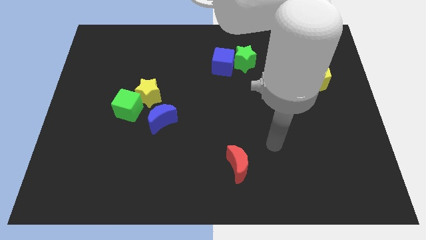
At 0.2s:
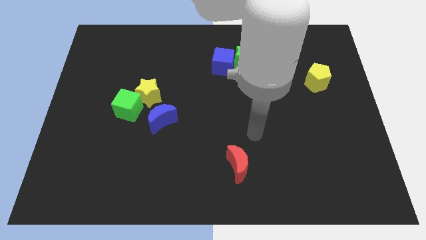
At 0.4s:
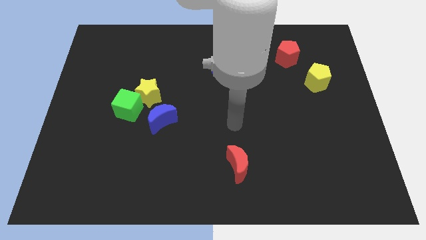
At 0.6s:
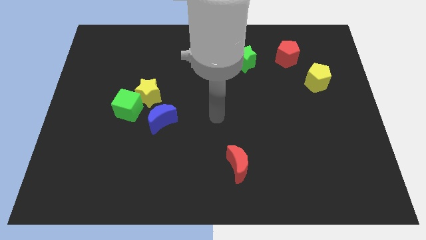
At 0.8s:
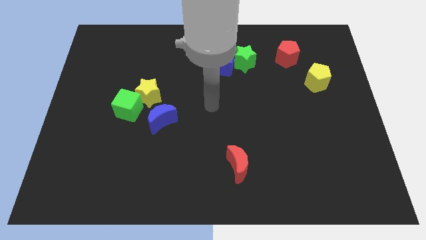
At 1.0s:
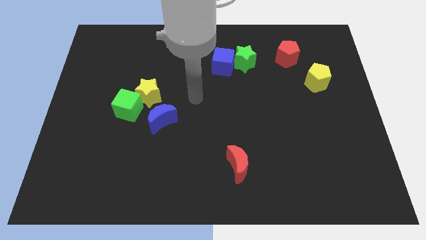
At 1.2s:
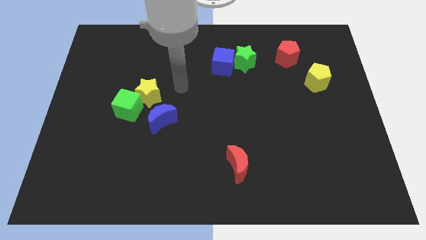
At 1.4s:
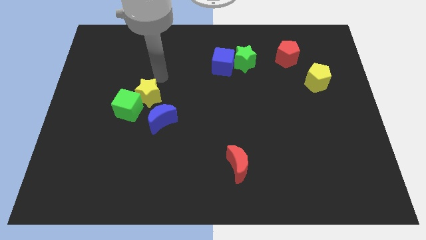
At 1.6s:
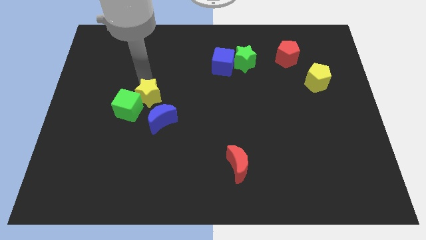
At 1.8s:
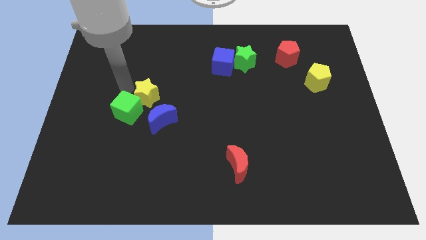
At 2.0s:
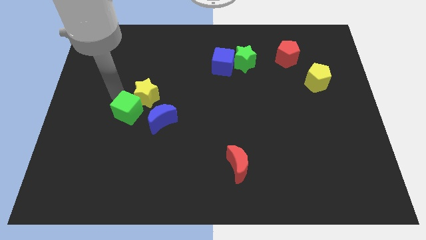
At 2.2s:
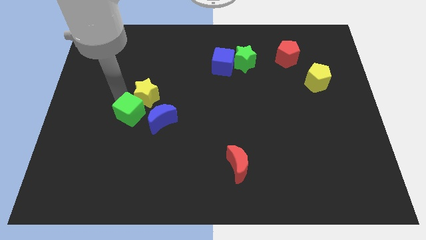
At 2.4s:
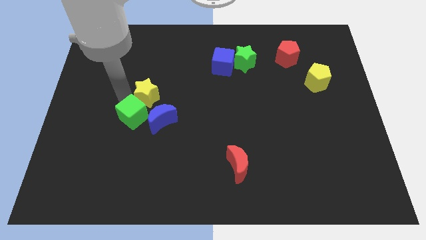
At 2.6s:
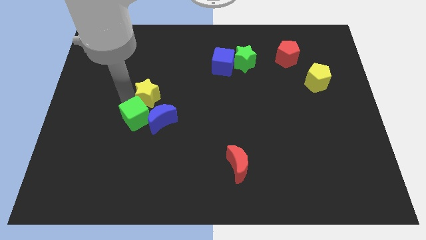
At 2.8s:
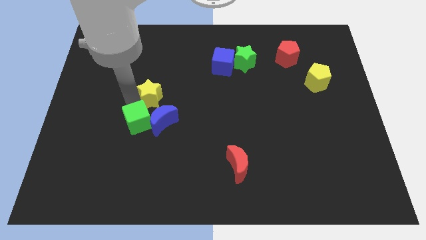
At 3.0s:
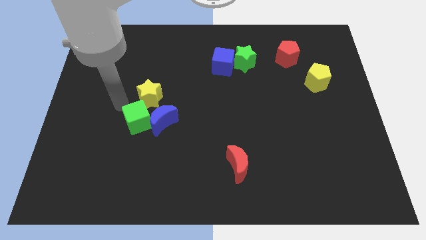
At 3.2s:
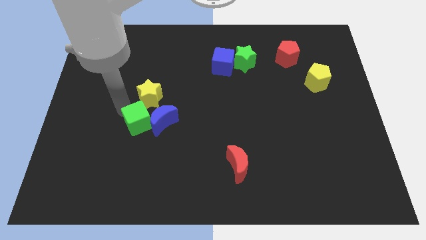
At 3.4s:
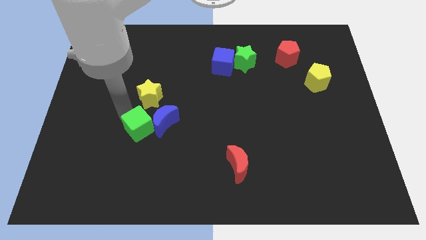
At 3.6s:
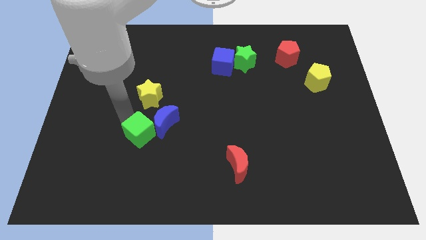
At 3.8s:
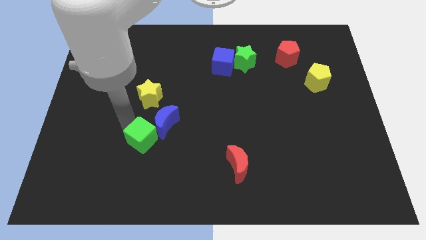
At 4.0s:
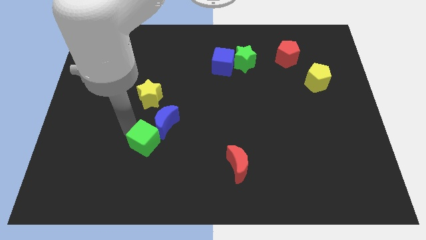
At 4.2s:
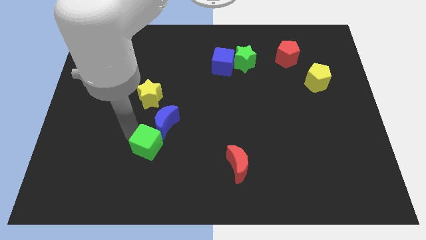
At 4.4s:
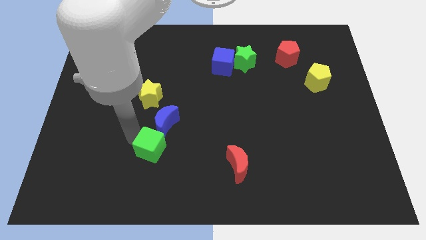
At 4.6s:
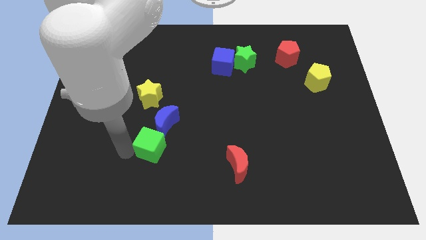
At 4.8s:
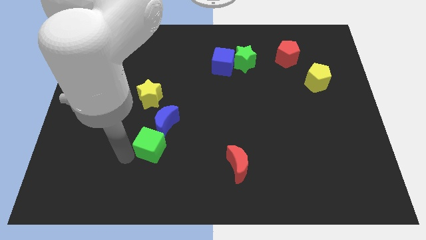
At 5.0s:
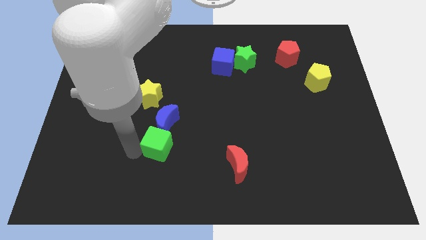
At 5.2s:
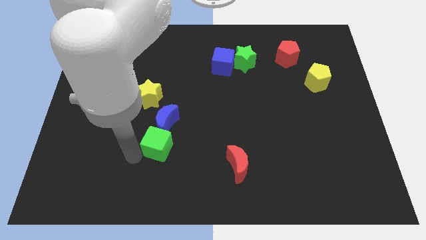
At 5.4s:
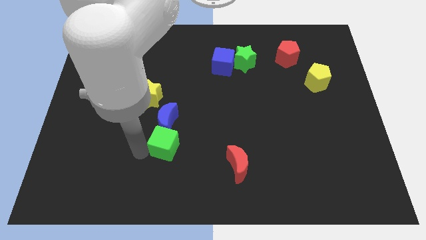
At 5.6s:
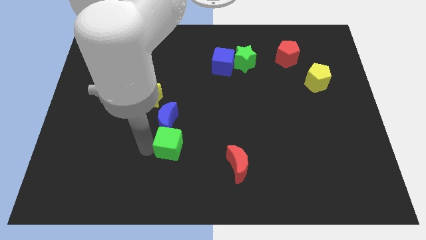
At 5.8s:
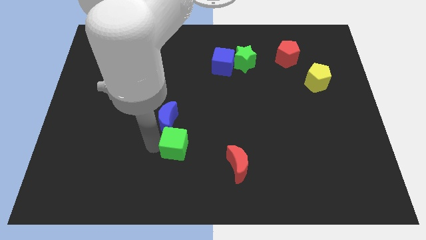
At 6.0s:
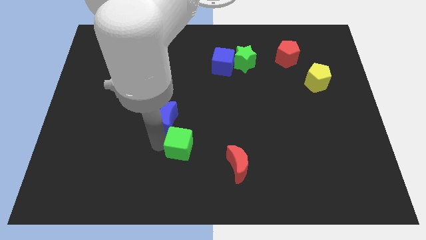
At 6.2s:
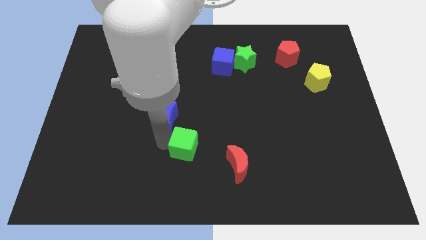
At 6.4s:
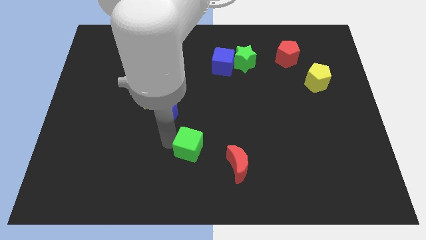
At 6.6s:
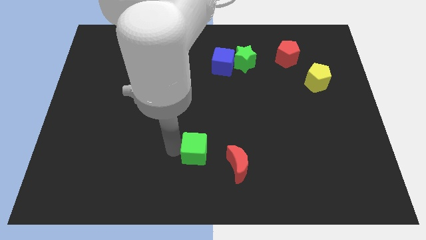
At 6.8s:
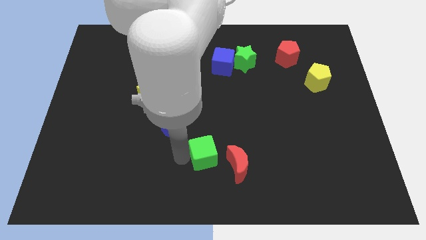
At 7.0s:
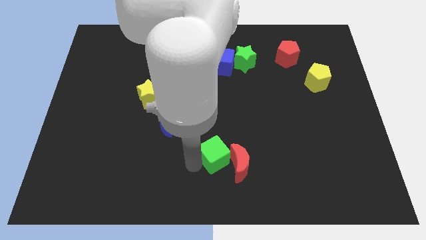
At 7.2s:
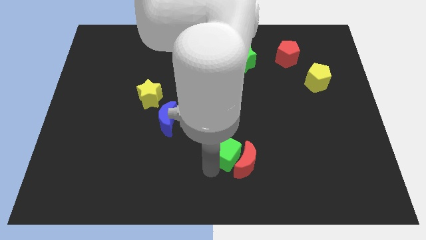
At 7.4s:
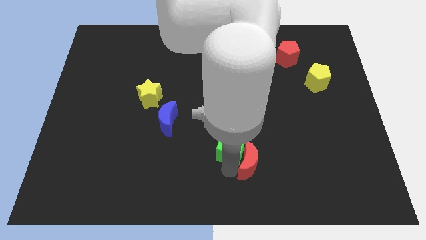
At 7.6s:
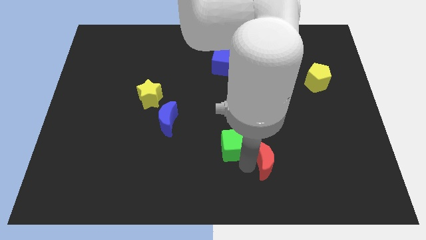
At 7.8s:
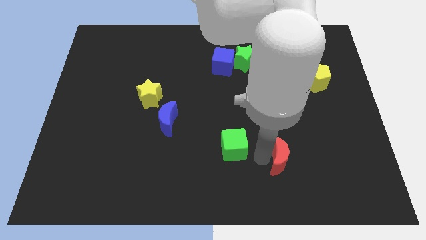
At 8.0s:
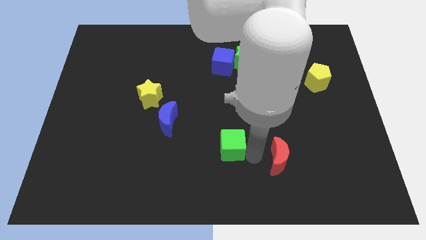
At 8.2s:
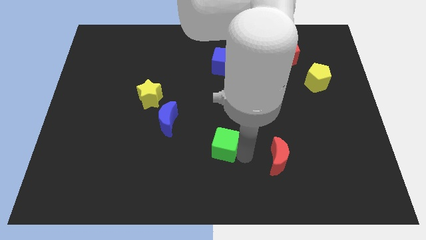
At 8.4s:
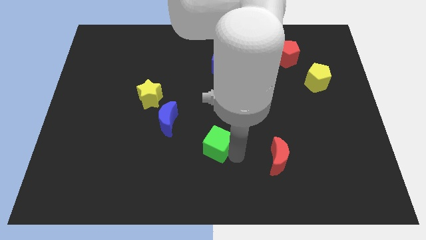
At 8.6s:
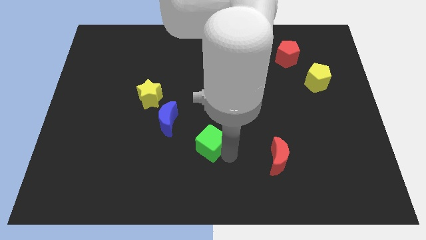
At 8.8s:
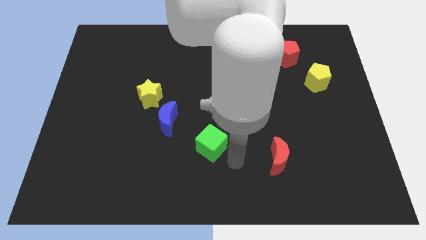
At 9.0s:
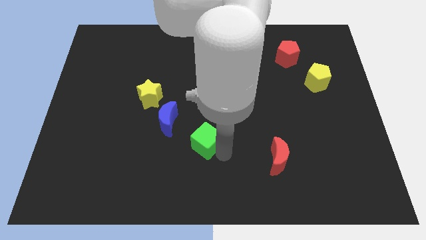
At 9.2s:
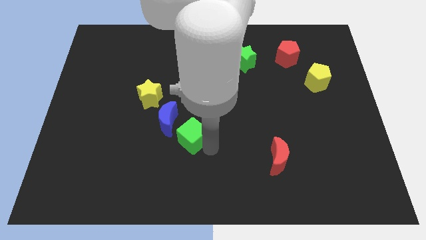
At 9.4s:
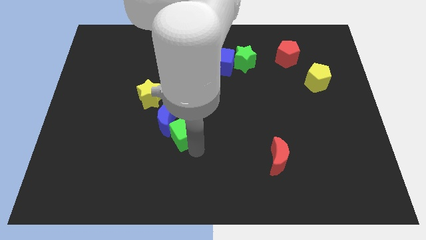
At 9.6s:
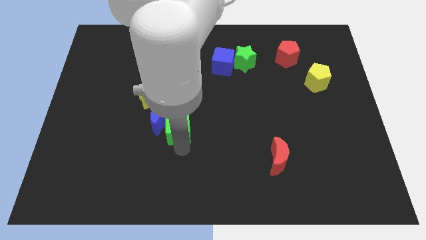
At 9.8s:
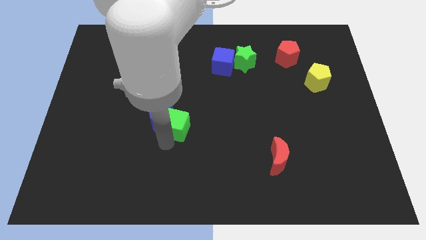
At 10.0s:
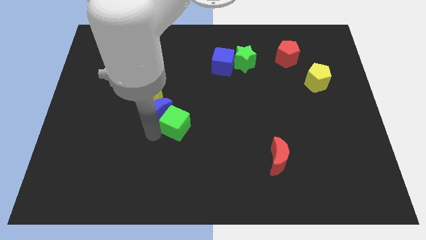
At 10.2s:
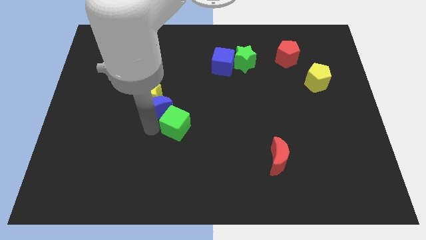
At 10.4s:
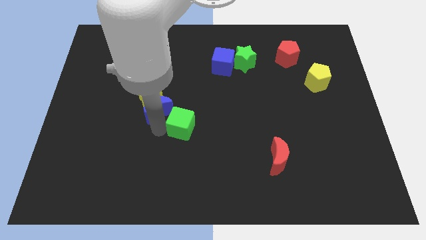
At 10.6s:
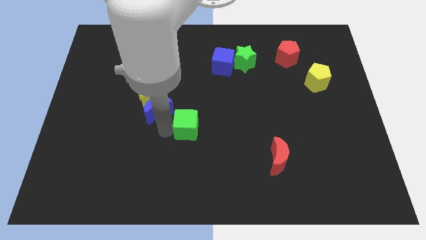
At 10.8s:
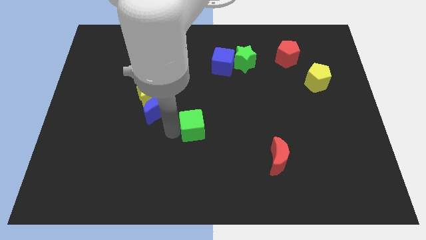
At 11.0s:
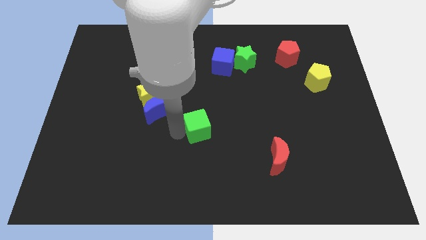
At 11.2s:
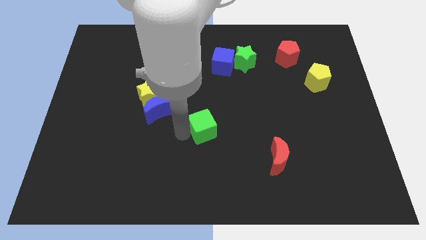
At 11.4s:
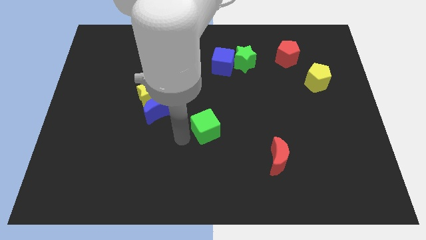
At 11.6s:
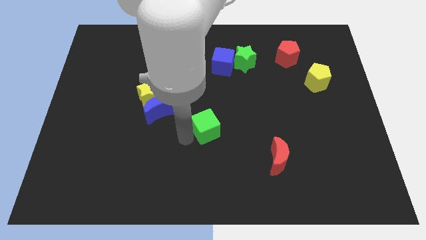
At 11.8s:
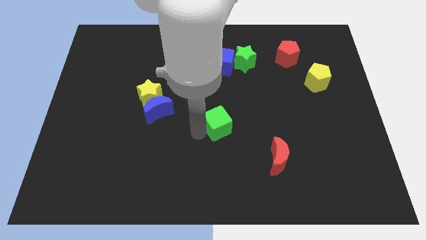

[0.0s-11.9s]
push the green cube right

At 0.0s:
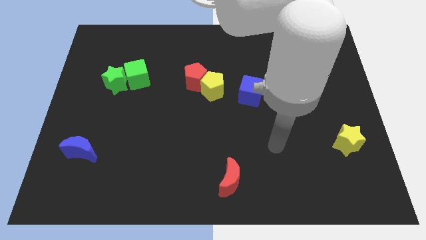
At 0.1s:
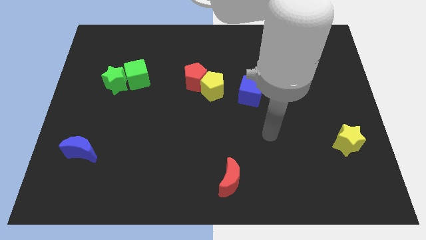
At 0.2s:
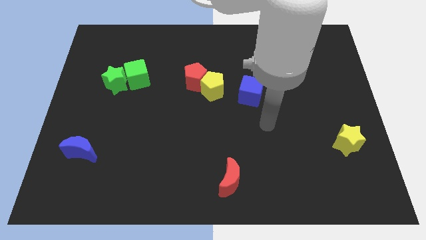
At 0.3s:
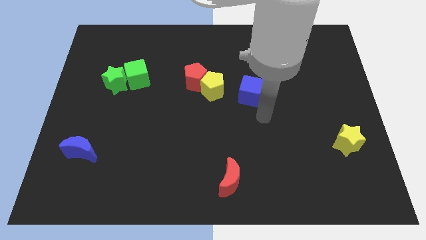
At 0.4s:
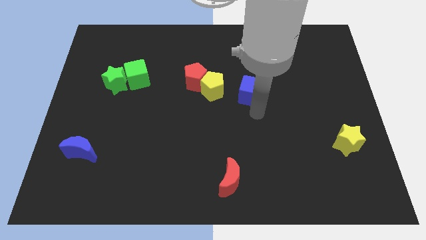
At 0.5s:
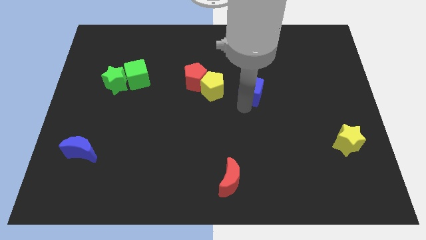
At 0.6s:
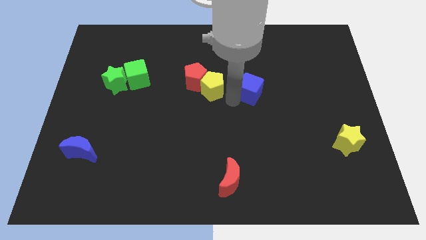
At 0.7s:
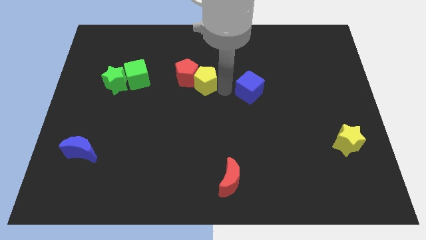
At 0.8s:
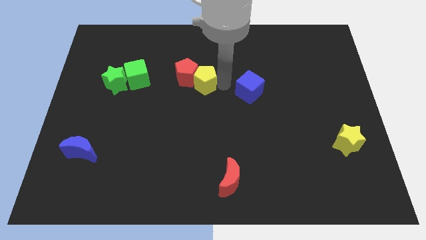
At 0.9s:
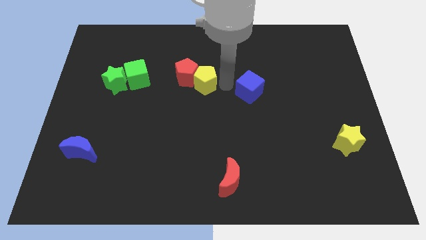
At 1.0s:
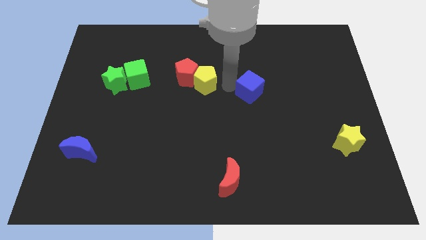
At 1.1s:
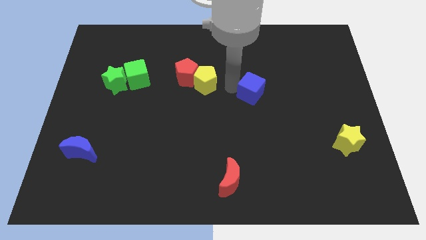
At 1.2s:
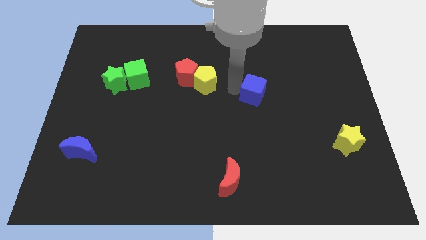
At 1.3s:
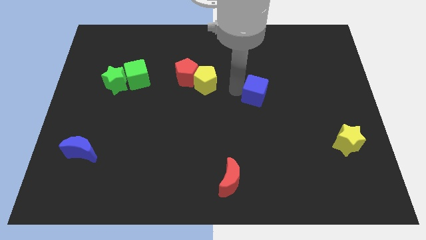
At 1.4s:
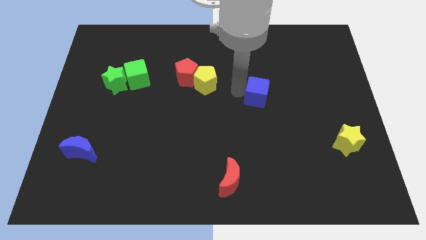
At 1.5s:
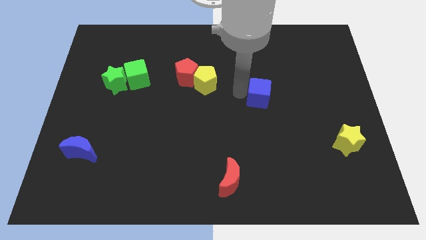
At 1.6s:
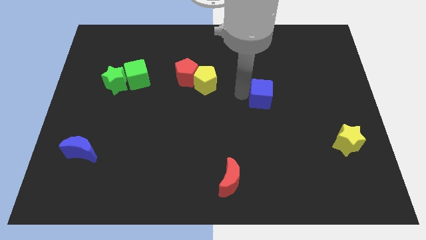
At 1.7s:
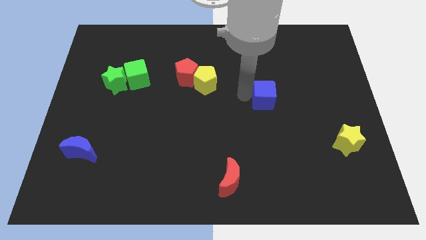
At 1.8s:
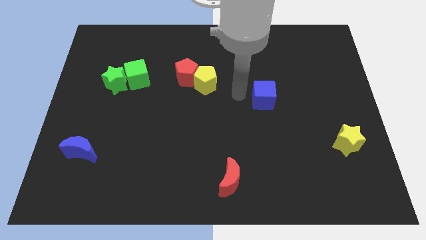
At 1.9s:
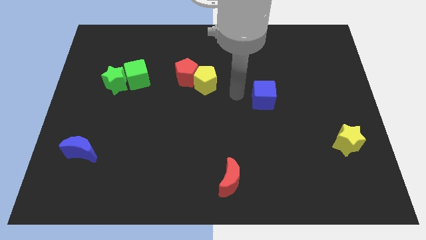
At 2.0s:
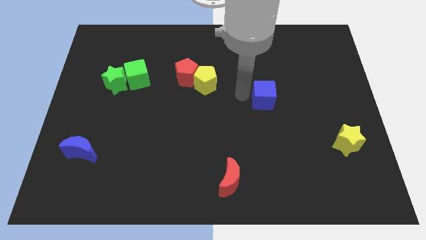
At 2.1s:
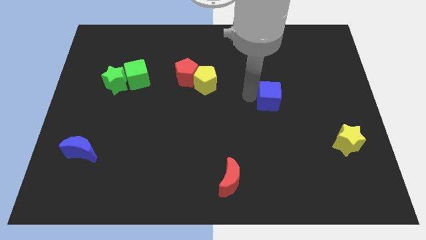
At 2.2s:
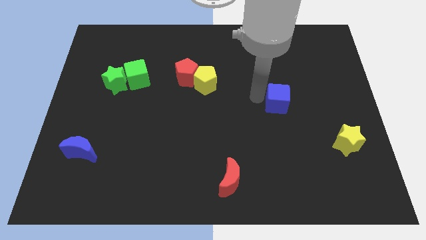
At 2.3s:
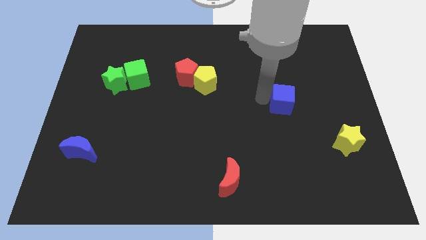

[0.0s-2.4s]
slightly slide the blue cube right
